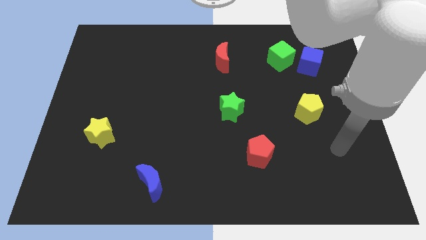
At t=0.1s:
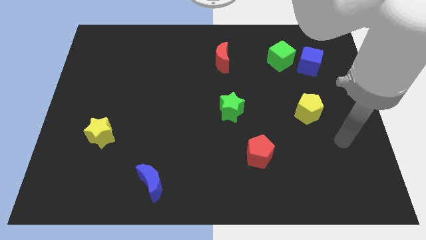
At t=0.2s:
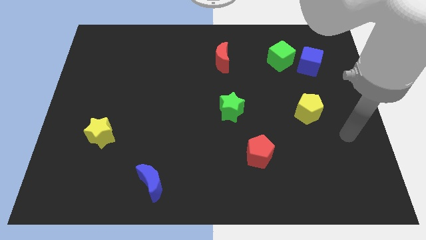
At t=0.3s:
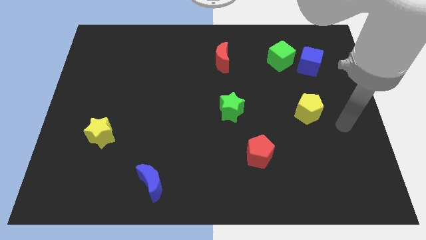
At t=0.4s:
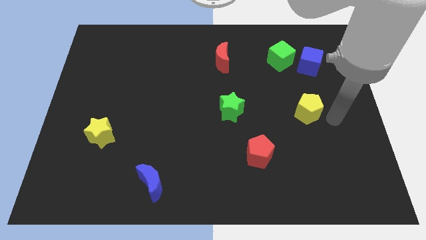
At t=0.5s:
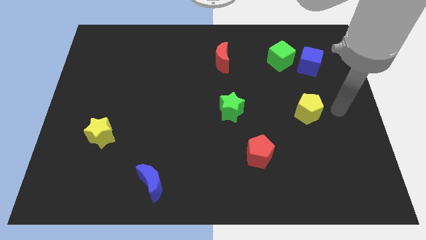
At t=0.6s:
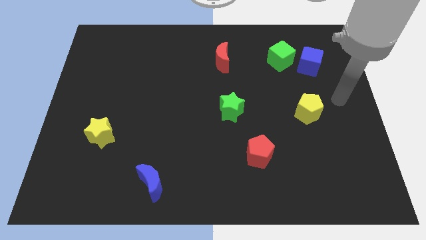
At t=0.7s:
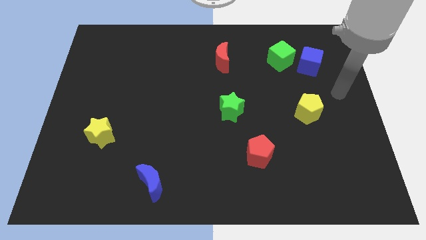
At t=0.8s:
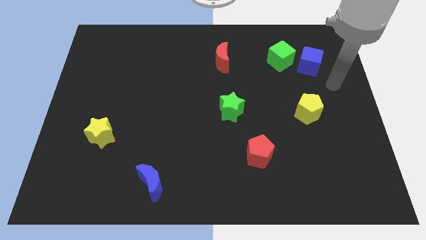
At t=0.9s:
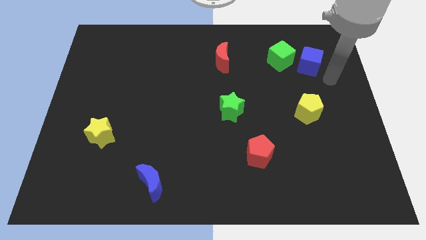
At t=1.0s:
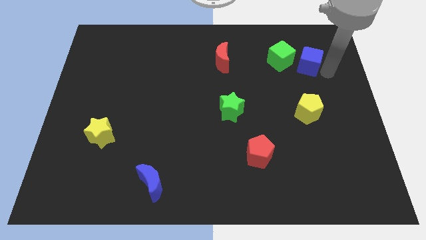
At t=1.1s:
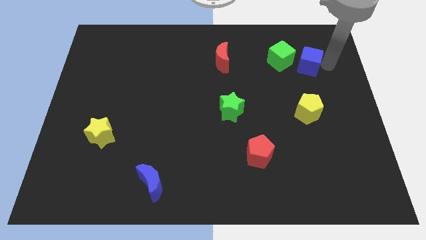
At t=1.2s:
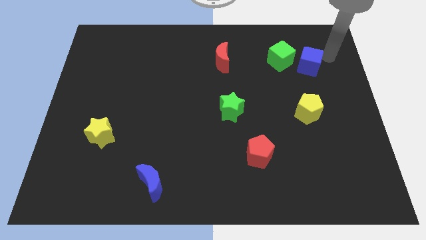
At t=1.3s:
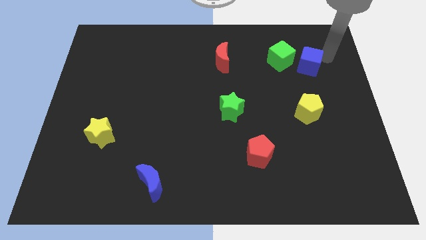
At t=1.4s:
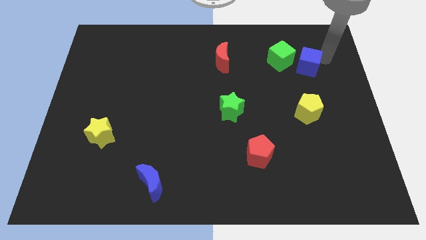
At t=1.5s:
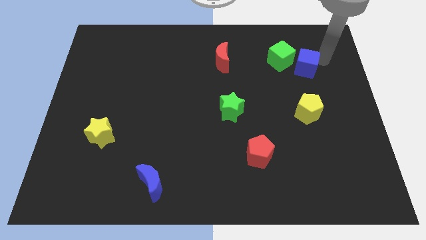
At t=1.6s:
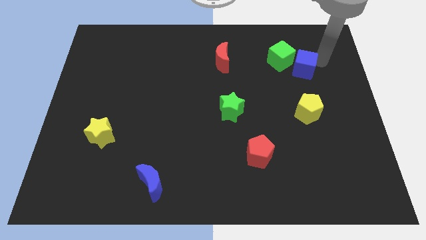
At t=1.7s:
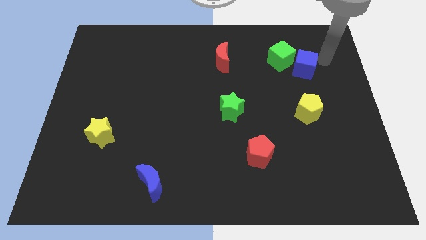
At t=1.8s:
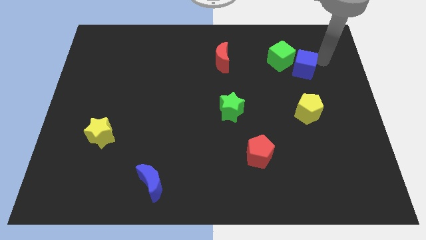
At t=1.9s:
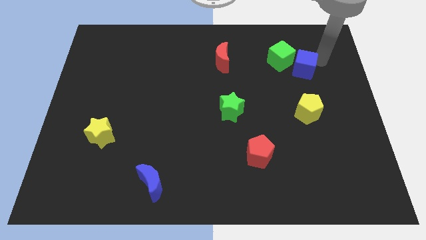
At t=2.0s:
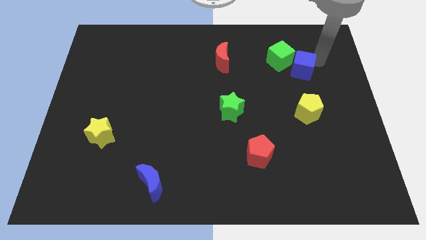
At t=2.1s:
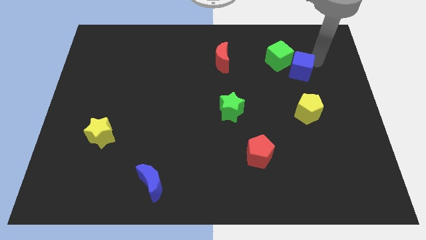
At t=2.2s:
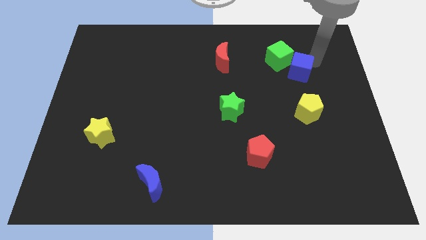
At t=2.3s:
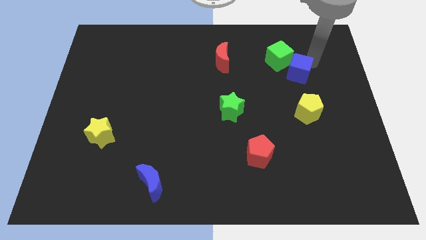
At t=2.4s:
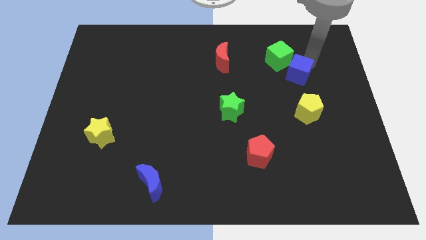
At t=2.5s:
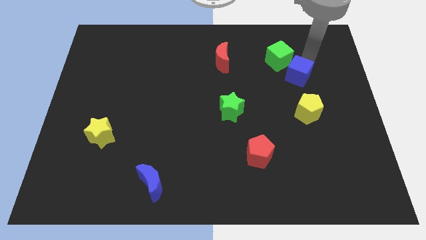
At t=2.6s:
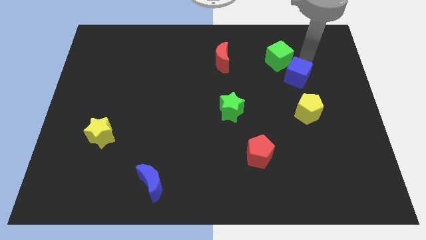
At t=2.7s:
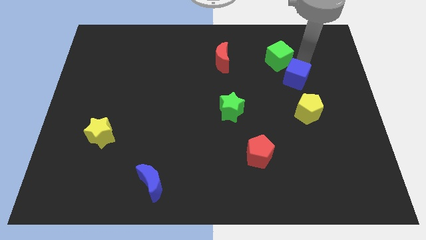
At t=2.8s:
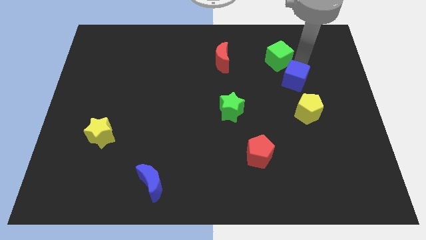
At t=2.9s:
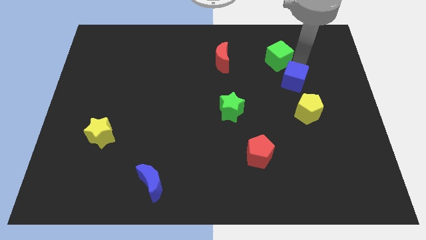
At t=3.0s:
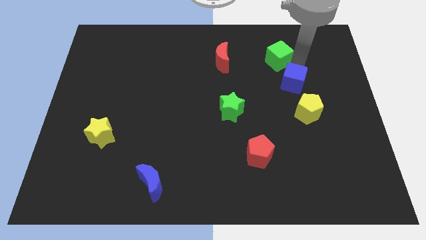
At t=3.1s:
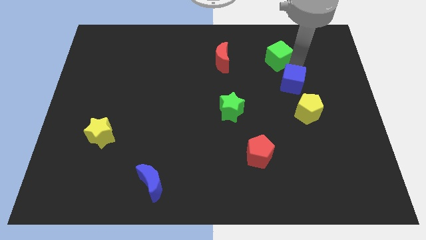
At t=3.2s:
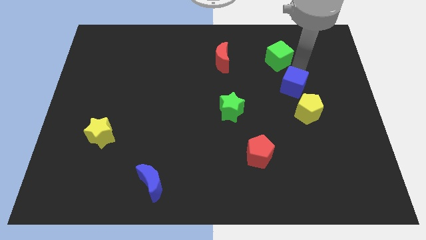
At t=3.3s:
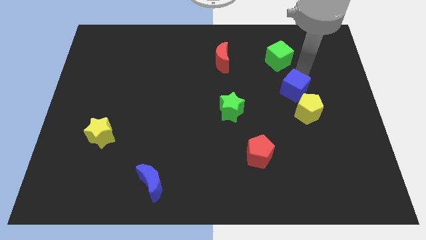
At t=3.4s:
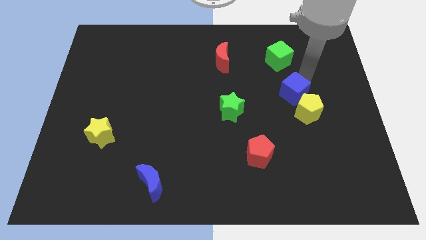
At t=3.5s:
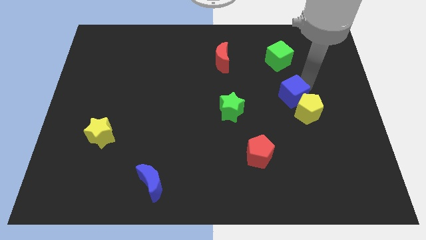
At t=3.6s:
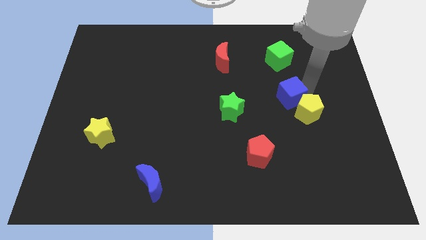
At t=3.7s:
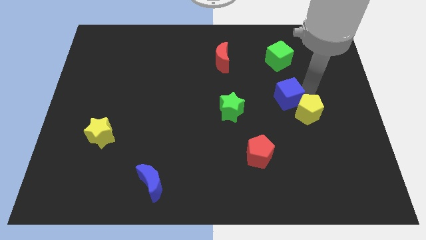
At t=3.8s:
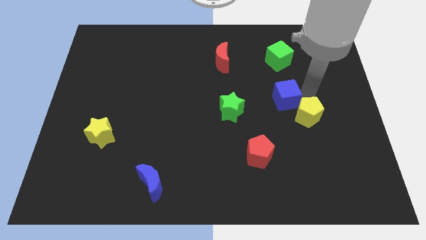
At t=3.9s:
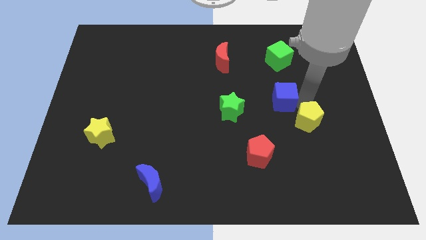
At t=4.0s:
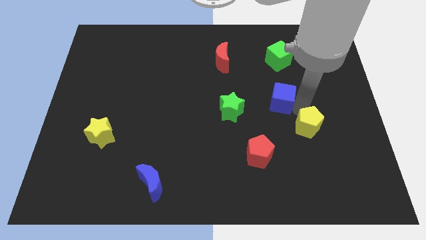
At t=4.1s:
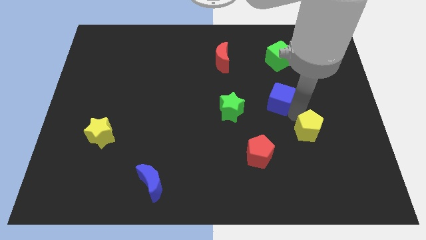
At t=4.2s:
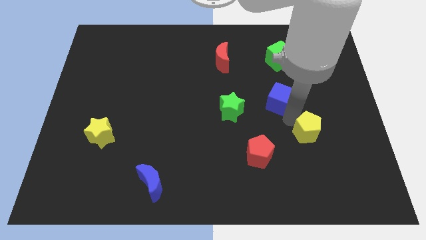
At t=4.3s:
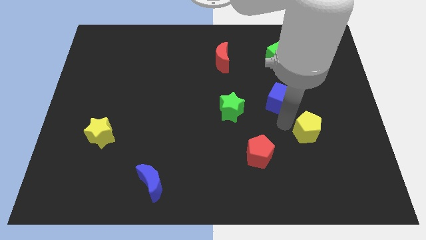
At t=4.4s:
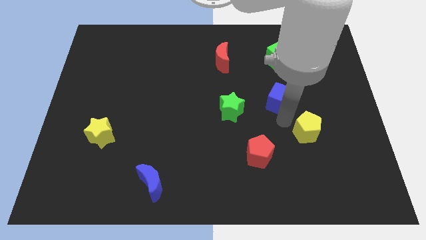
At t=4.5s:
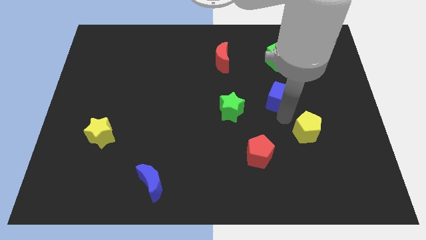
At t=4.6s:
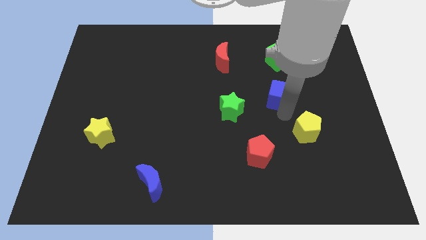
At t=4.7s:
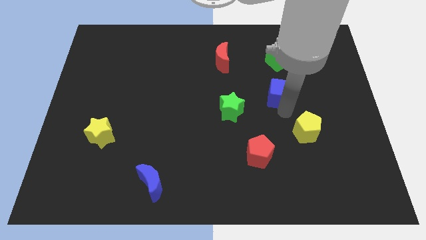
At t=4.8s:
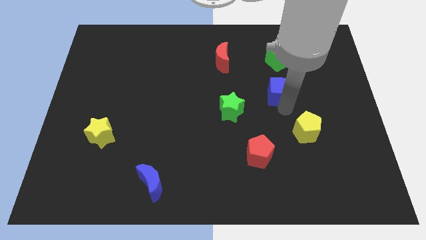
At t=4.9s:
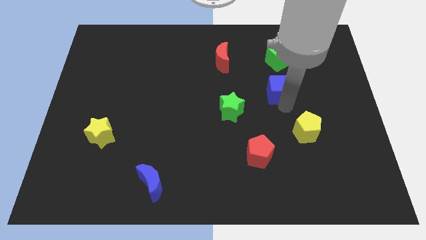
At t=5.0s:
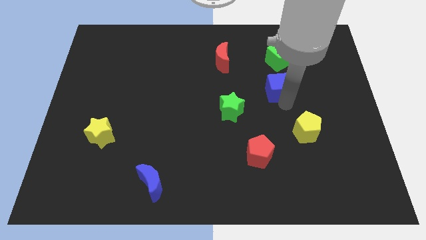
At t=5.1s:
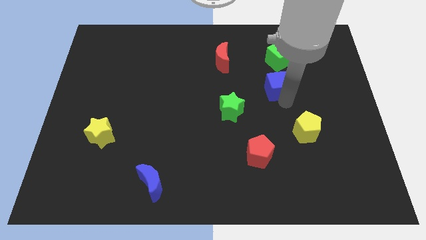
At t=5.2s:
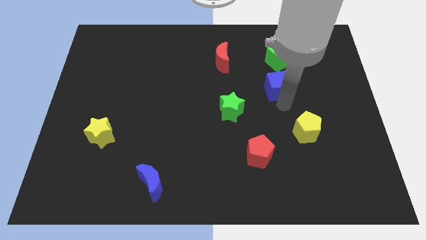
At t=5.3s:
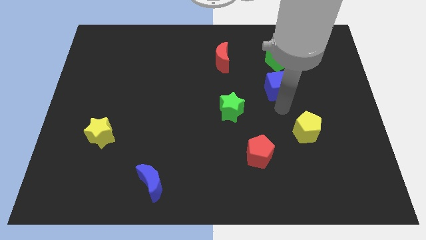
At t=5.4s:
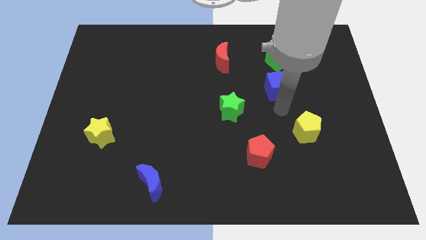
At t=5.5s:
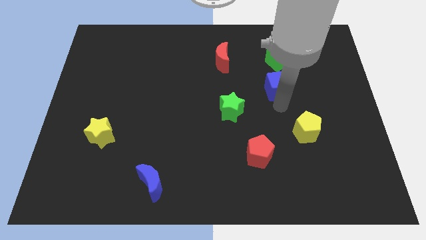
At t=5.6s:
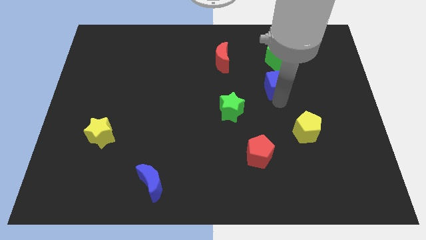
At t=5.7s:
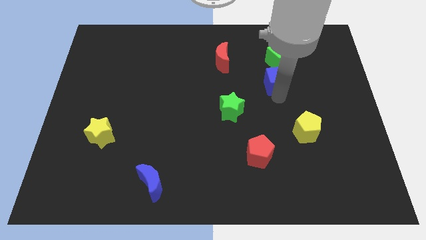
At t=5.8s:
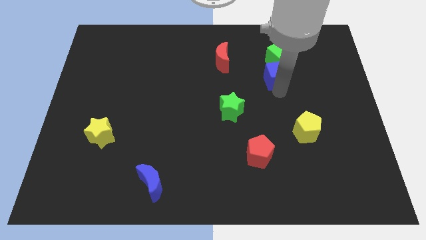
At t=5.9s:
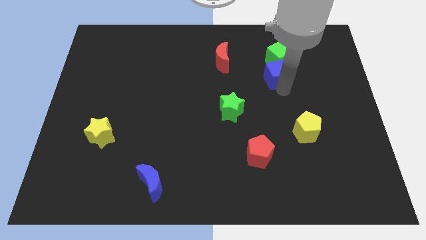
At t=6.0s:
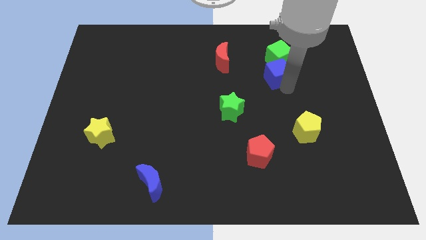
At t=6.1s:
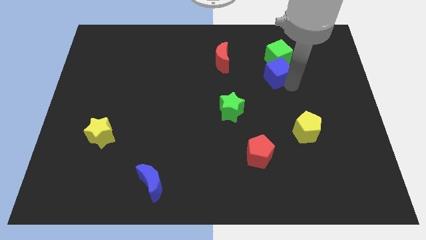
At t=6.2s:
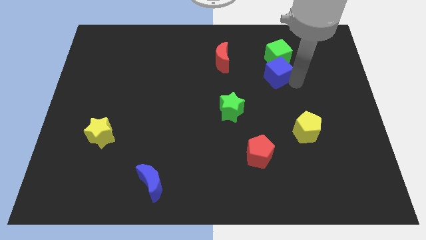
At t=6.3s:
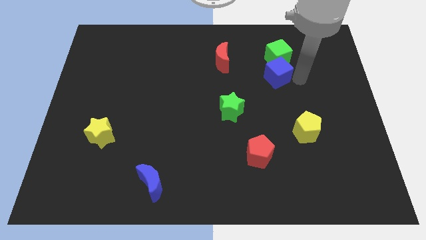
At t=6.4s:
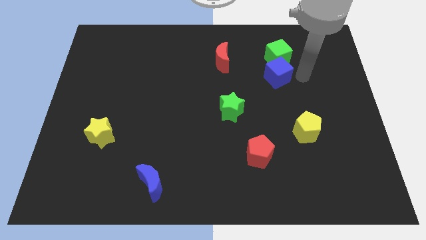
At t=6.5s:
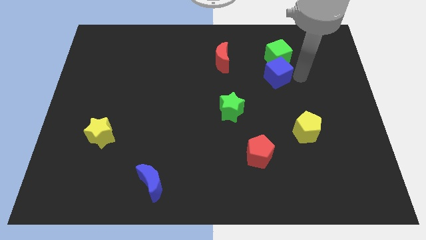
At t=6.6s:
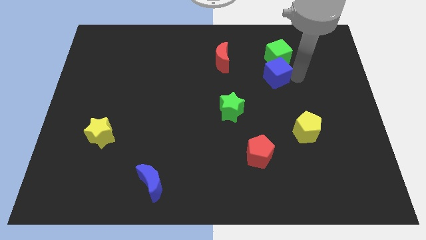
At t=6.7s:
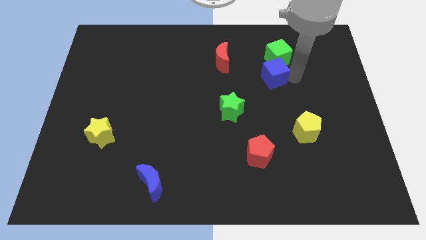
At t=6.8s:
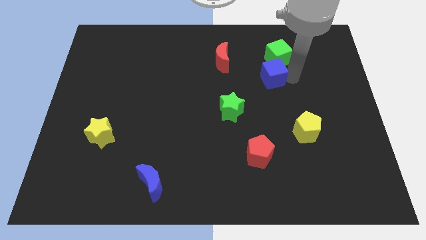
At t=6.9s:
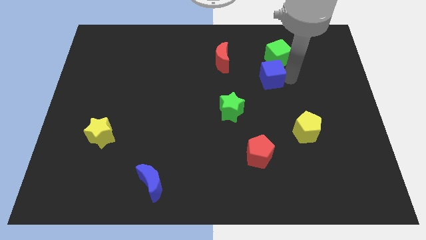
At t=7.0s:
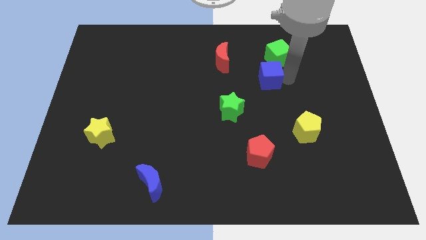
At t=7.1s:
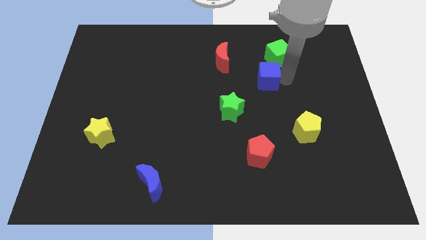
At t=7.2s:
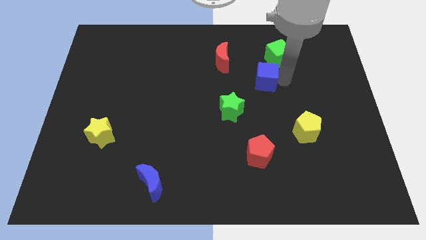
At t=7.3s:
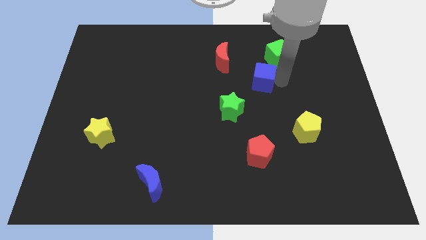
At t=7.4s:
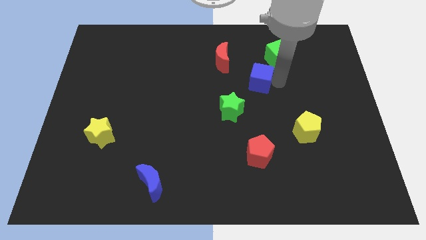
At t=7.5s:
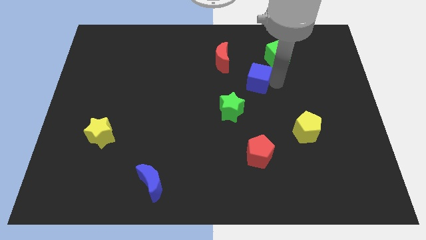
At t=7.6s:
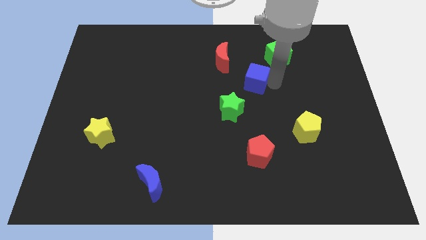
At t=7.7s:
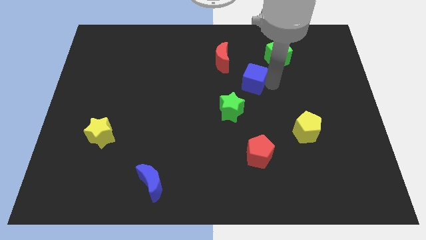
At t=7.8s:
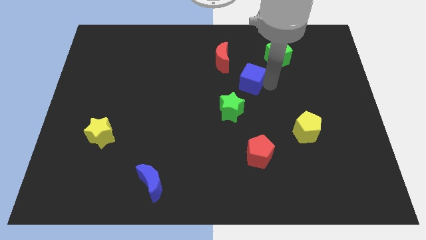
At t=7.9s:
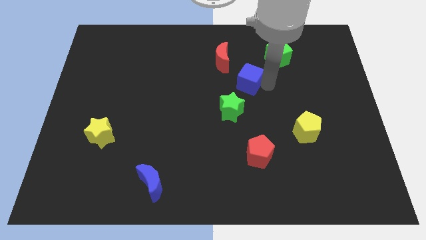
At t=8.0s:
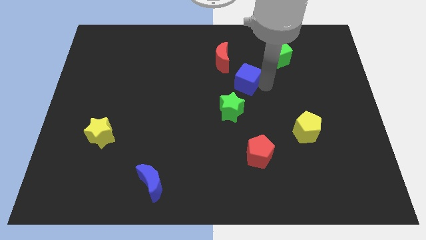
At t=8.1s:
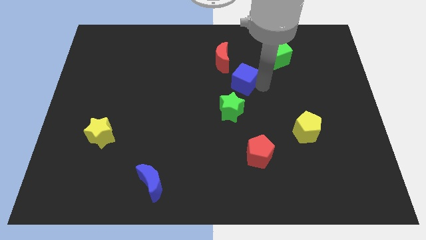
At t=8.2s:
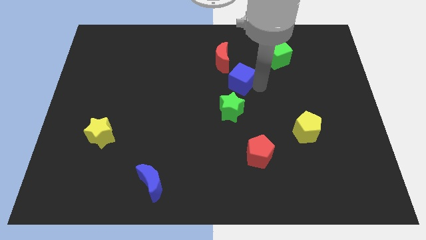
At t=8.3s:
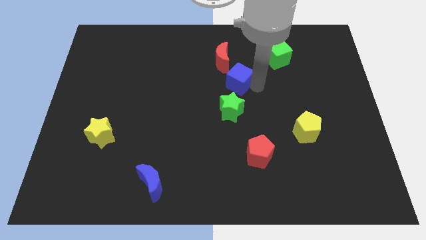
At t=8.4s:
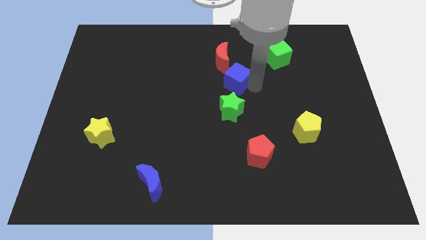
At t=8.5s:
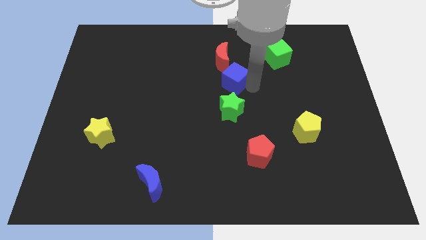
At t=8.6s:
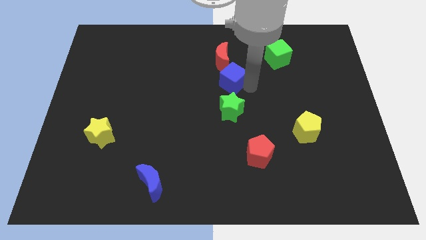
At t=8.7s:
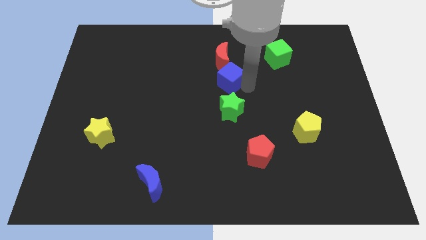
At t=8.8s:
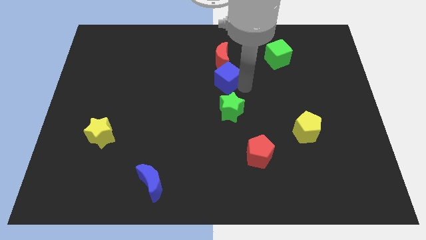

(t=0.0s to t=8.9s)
push the blue cube to the left
